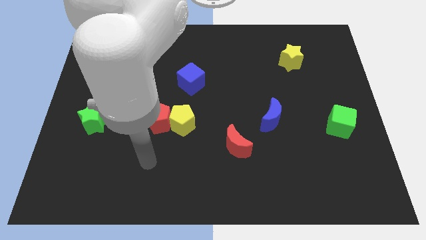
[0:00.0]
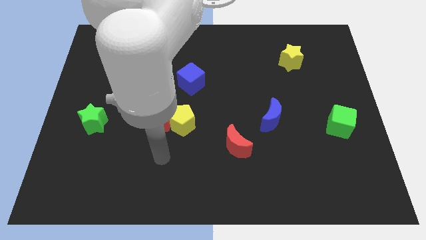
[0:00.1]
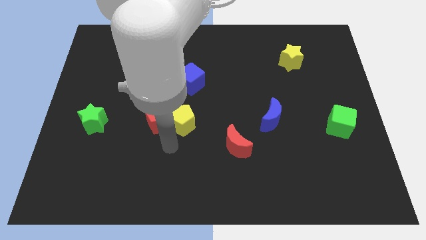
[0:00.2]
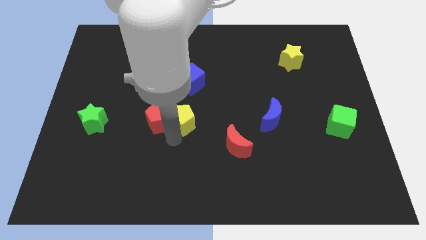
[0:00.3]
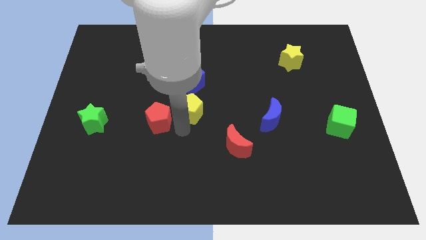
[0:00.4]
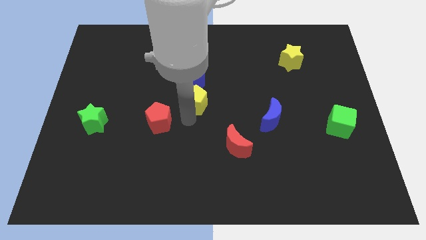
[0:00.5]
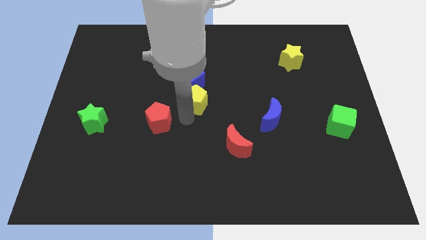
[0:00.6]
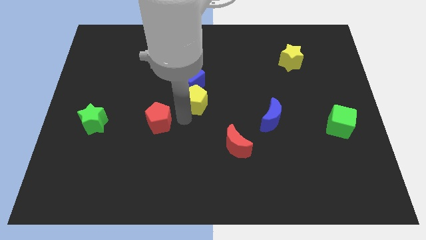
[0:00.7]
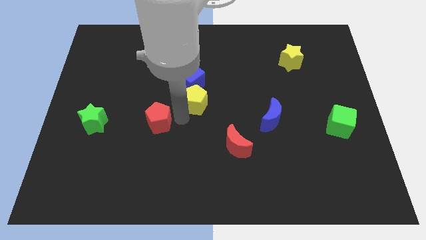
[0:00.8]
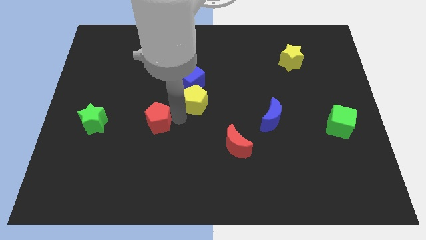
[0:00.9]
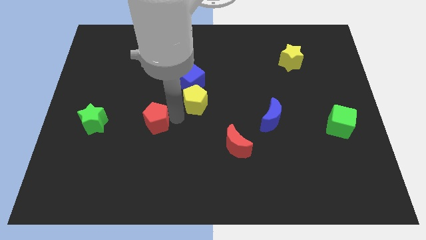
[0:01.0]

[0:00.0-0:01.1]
separate the red pentagon from the yellow pentagon

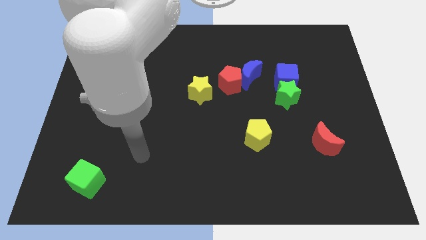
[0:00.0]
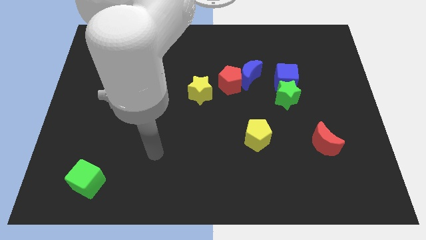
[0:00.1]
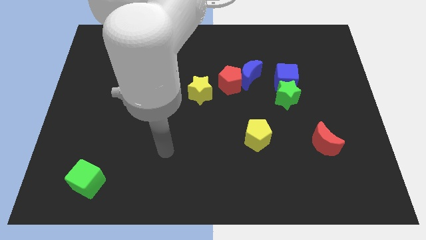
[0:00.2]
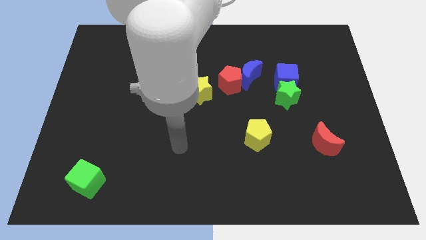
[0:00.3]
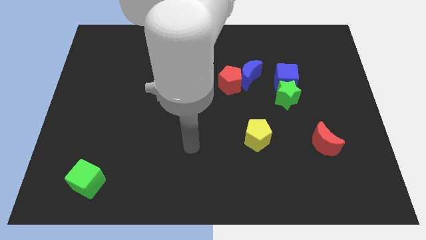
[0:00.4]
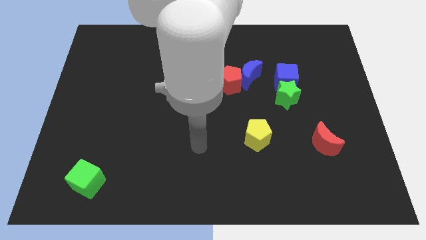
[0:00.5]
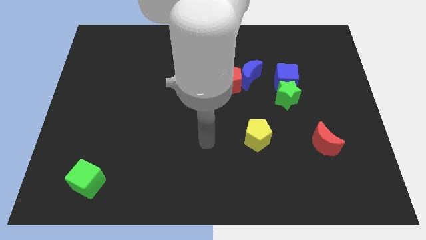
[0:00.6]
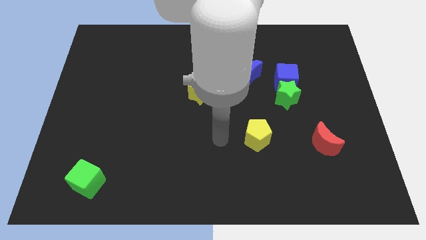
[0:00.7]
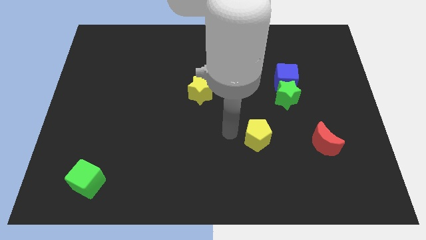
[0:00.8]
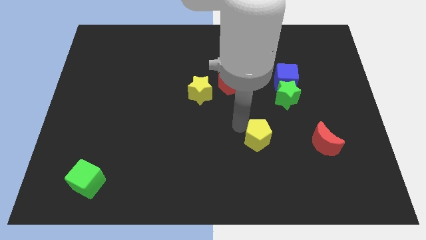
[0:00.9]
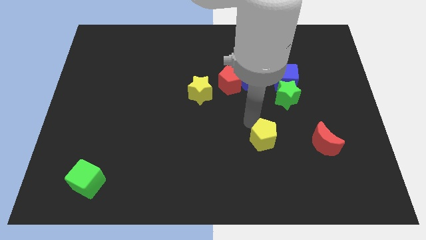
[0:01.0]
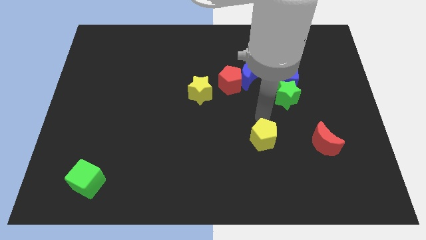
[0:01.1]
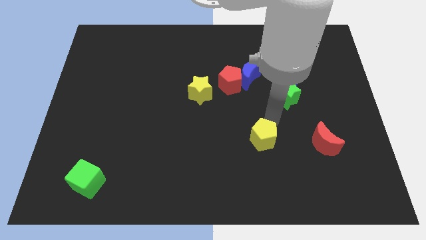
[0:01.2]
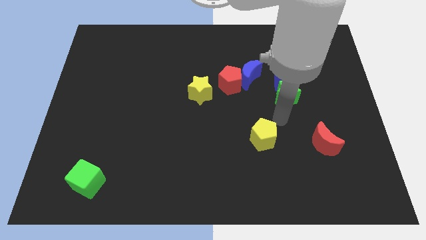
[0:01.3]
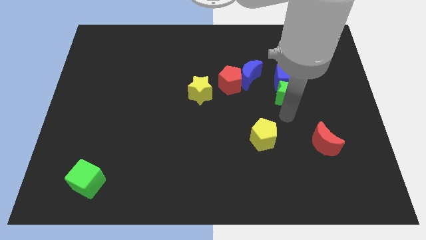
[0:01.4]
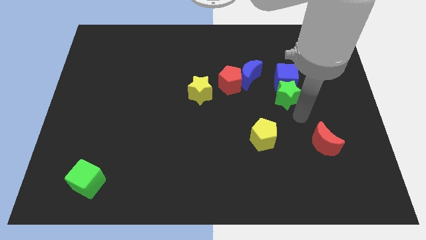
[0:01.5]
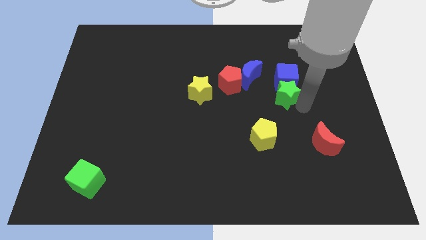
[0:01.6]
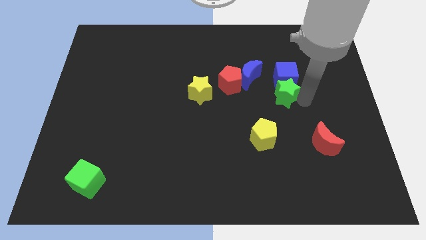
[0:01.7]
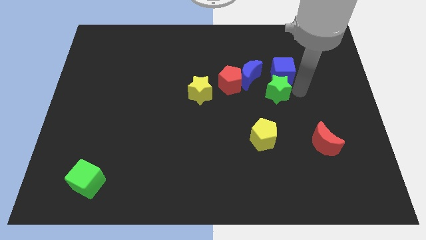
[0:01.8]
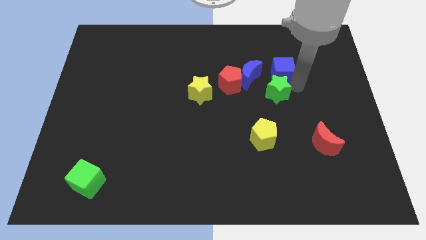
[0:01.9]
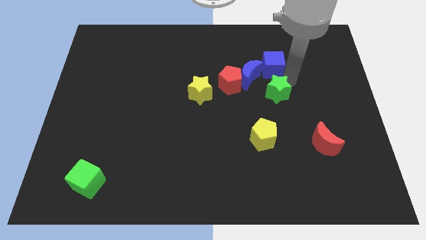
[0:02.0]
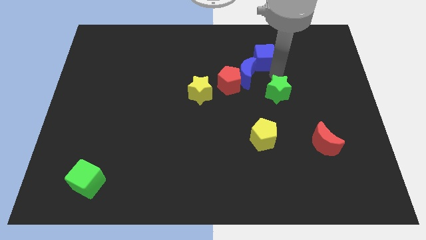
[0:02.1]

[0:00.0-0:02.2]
pull the green star apart from the blue cube

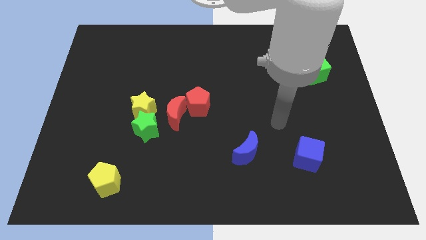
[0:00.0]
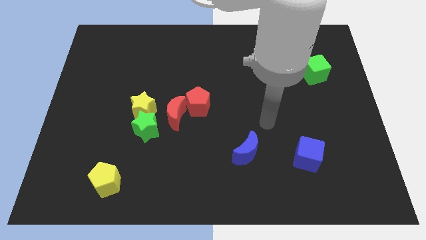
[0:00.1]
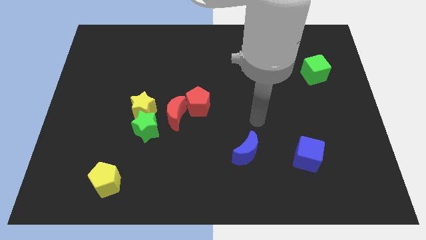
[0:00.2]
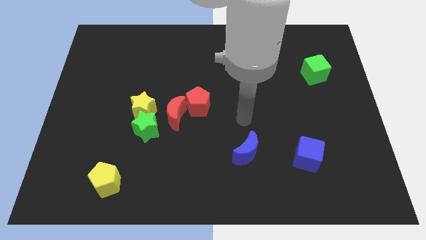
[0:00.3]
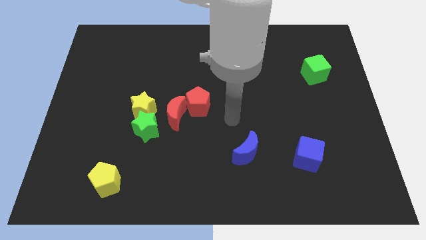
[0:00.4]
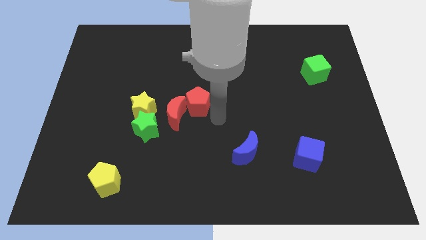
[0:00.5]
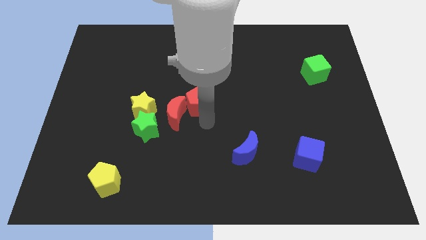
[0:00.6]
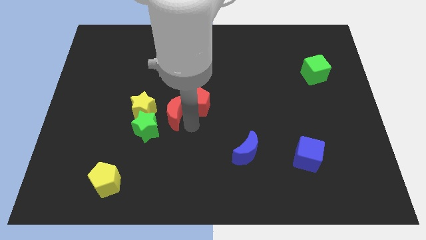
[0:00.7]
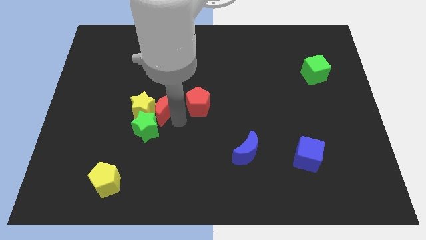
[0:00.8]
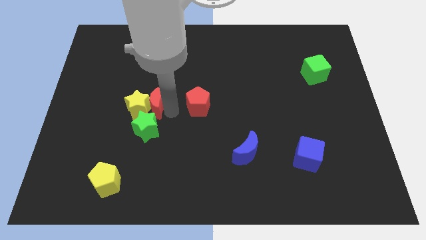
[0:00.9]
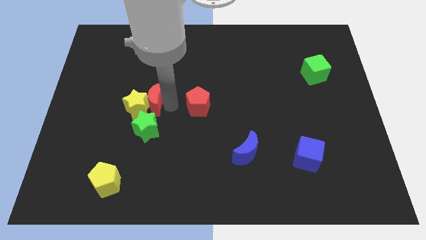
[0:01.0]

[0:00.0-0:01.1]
move the red pentagon away from the red moon

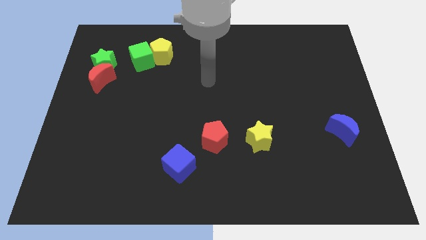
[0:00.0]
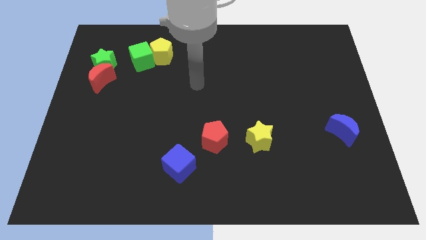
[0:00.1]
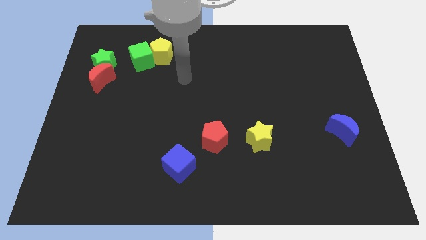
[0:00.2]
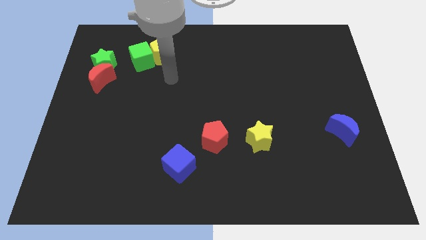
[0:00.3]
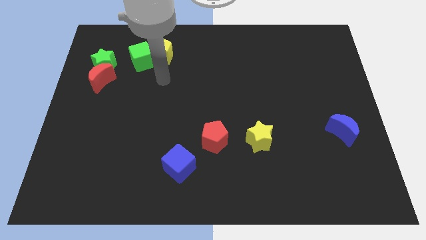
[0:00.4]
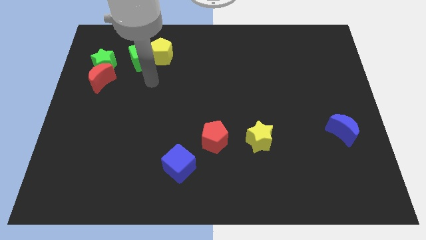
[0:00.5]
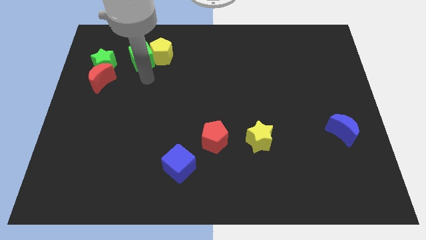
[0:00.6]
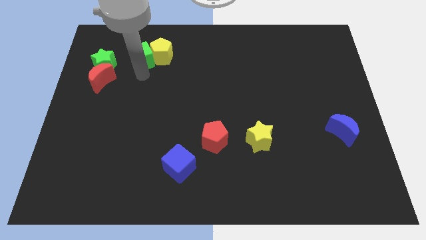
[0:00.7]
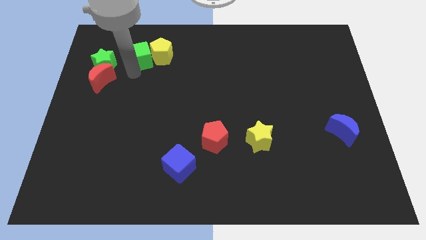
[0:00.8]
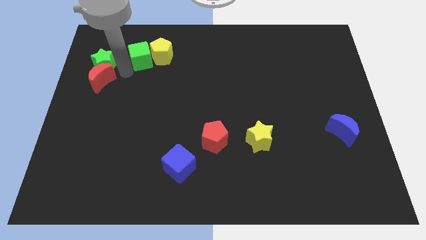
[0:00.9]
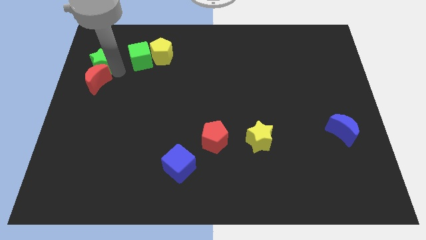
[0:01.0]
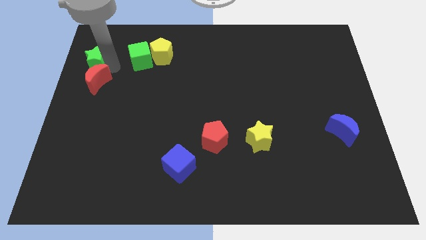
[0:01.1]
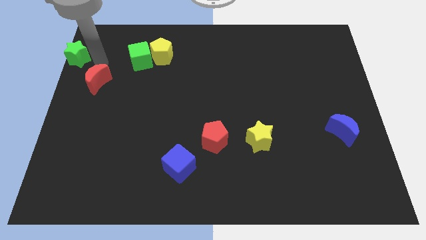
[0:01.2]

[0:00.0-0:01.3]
pull the red moon apart from the green star

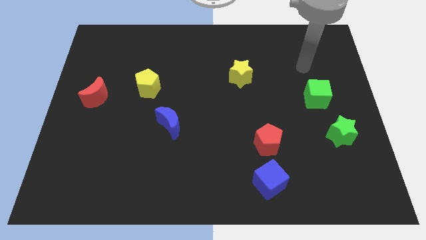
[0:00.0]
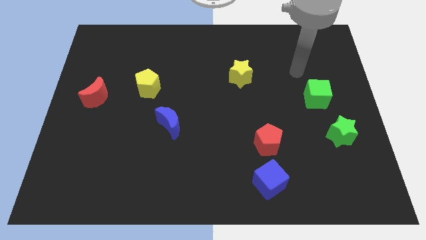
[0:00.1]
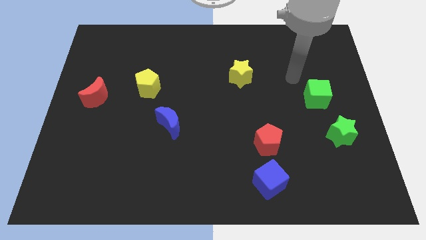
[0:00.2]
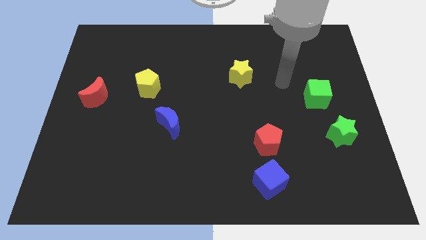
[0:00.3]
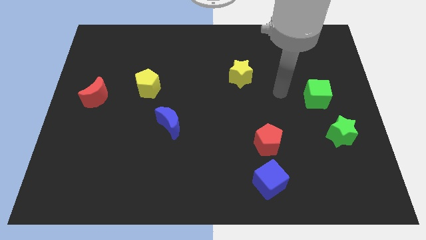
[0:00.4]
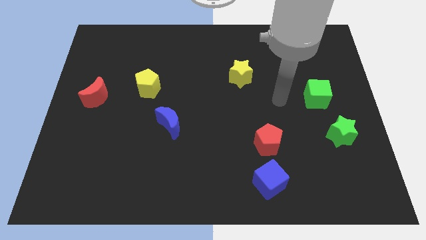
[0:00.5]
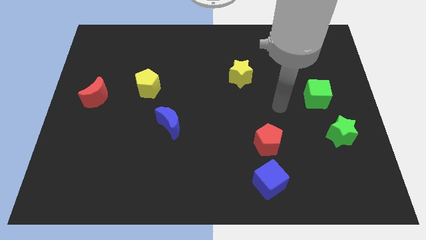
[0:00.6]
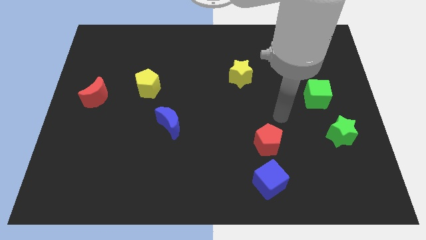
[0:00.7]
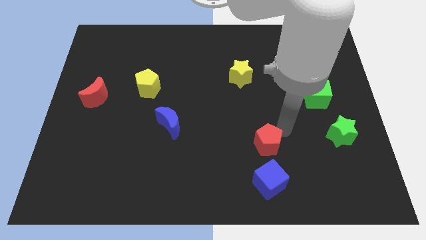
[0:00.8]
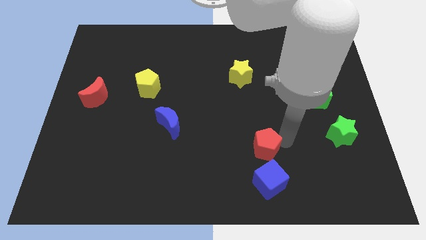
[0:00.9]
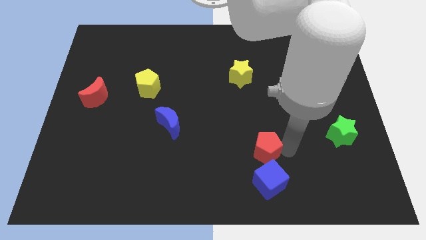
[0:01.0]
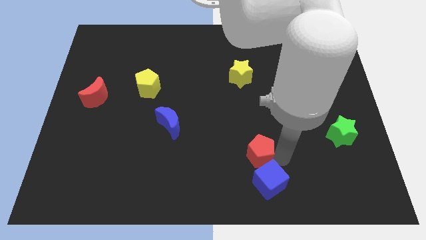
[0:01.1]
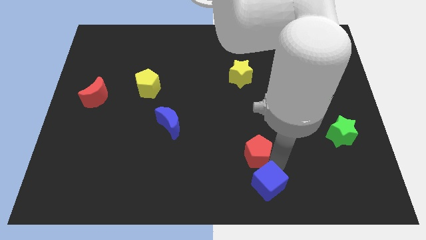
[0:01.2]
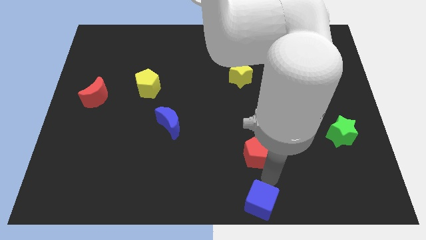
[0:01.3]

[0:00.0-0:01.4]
pull the red pentagon apart from the blue cube

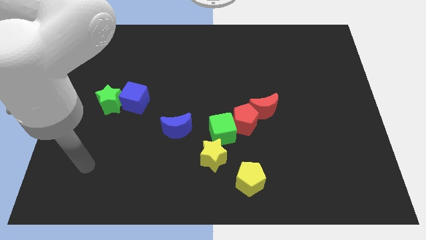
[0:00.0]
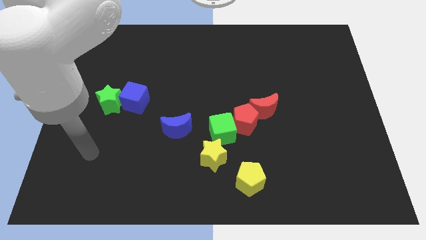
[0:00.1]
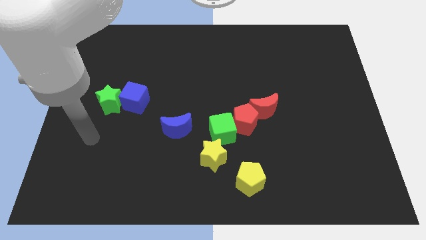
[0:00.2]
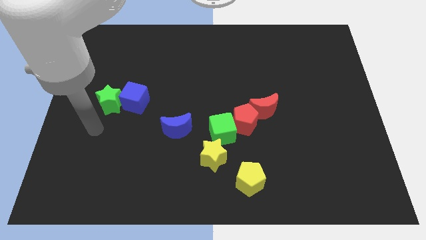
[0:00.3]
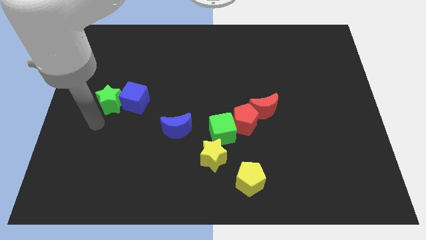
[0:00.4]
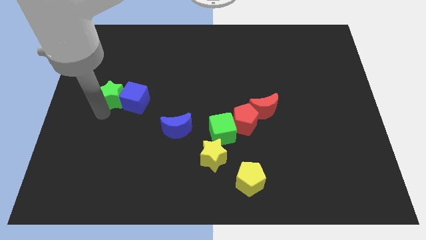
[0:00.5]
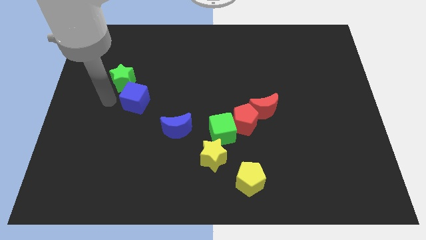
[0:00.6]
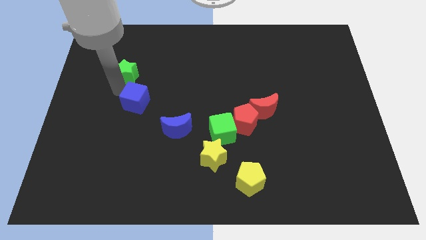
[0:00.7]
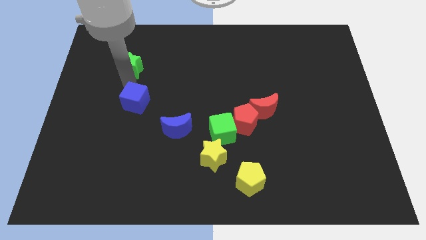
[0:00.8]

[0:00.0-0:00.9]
pull the blue cube apart from the green star

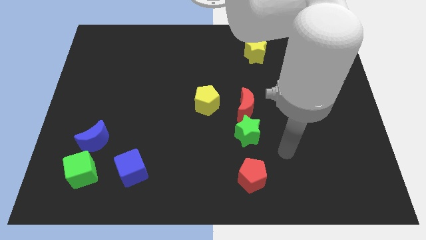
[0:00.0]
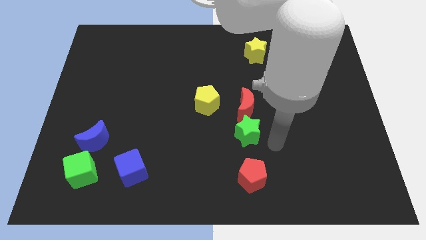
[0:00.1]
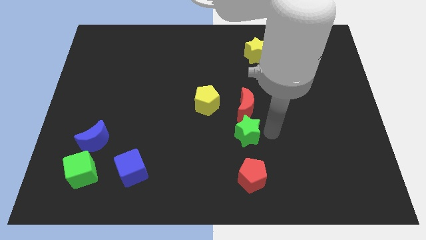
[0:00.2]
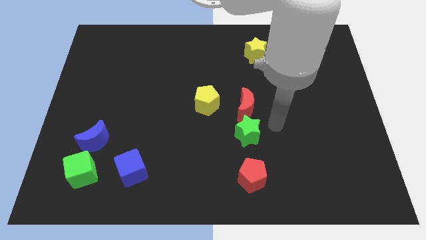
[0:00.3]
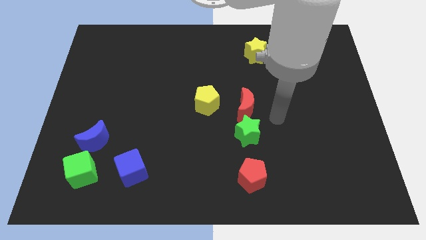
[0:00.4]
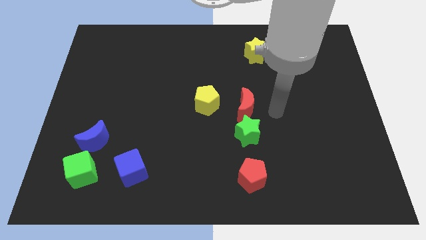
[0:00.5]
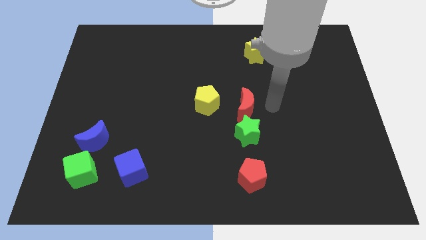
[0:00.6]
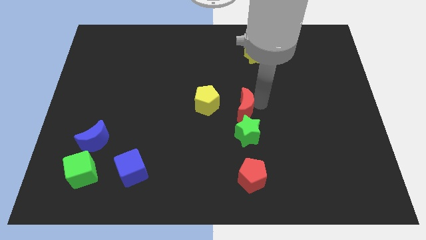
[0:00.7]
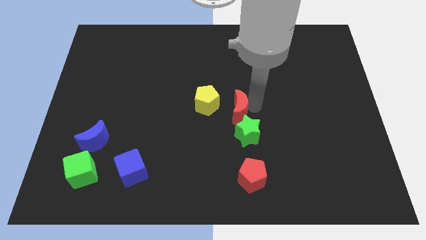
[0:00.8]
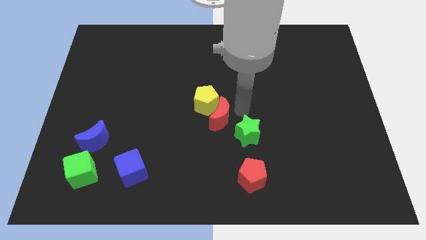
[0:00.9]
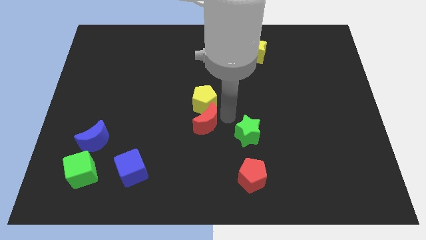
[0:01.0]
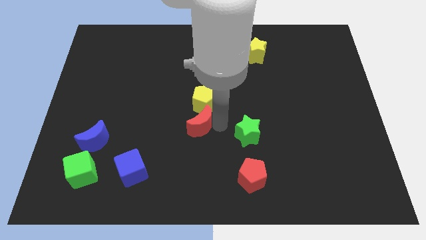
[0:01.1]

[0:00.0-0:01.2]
separate the green star from the red moon
